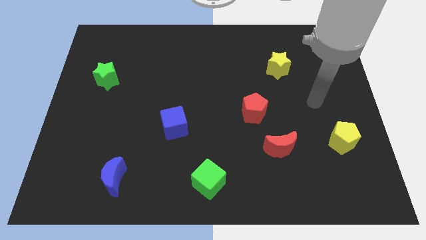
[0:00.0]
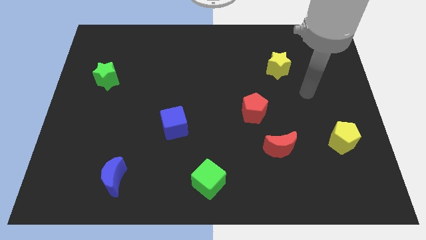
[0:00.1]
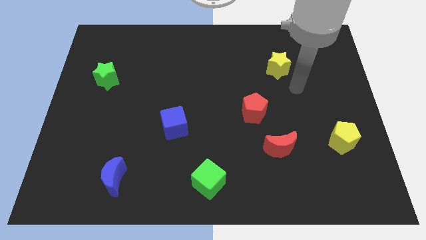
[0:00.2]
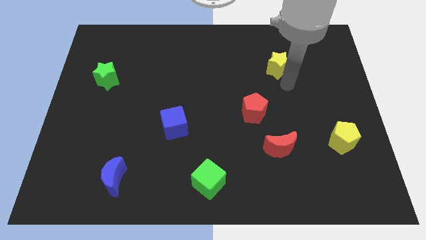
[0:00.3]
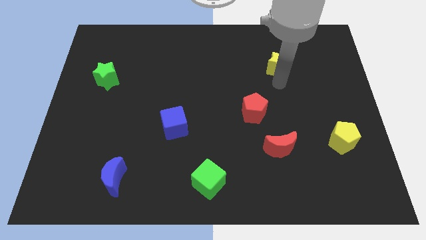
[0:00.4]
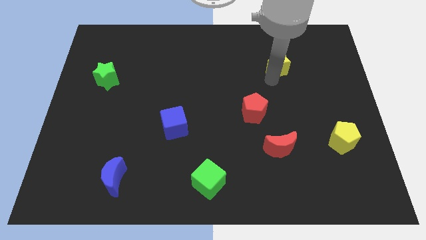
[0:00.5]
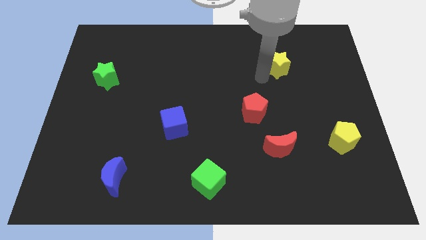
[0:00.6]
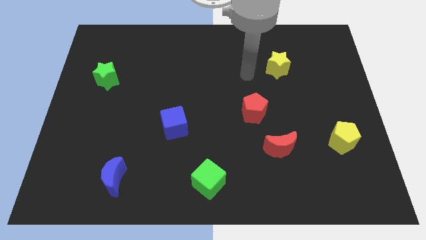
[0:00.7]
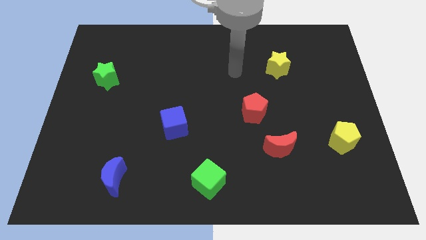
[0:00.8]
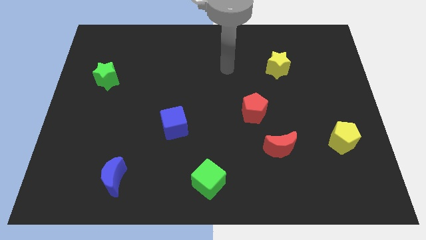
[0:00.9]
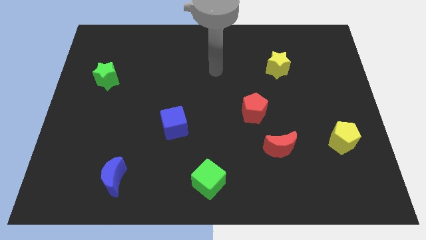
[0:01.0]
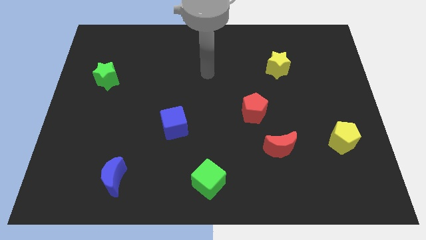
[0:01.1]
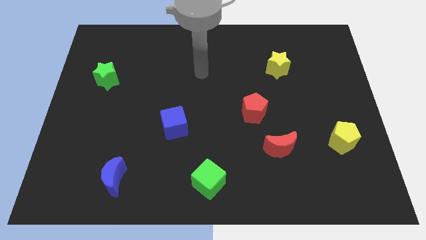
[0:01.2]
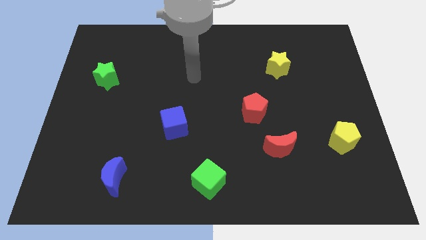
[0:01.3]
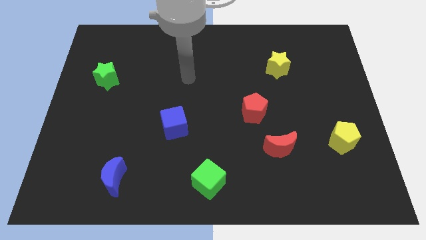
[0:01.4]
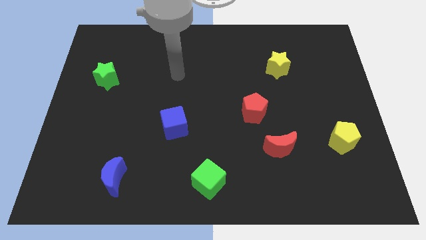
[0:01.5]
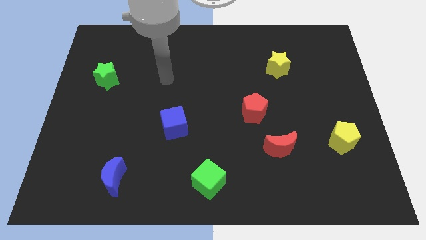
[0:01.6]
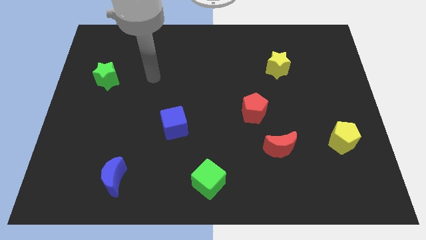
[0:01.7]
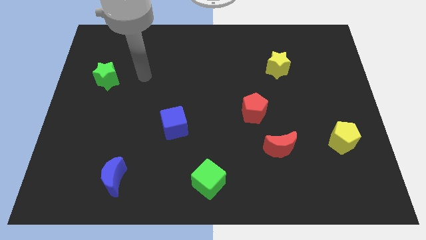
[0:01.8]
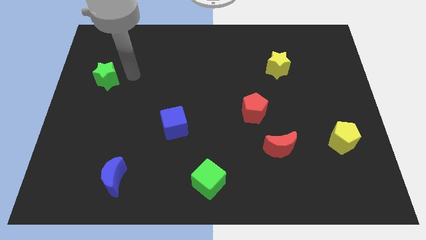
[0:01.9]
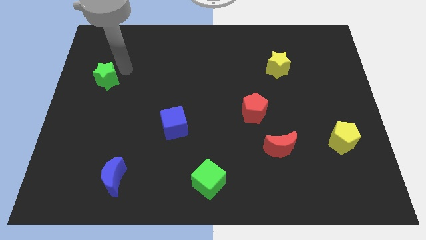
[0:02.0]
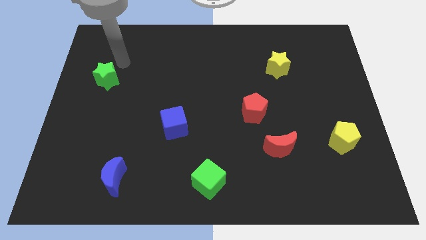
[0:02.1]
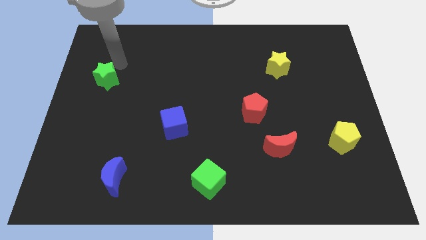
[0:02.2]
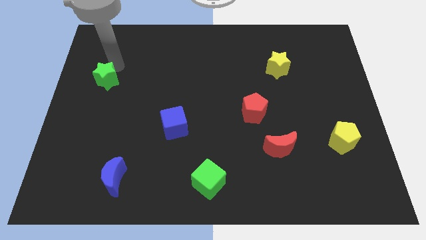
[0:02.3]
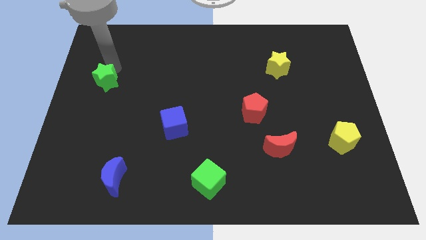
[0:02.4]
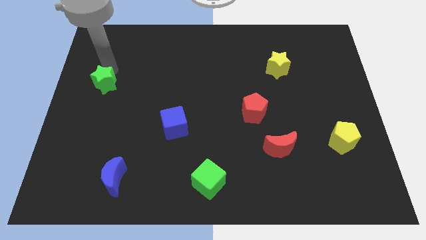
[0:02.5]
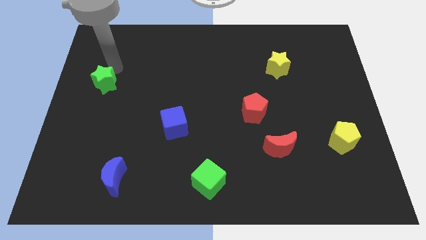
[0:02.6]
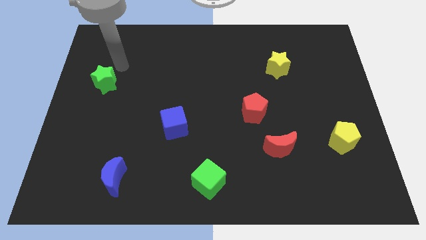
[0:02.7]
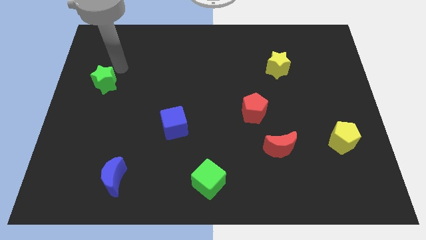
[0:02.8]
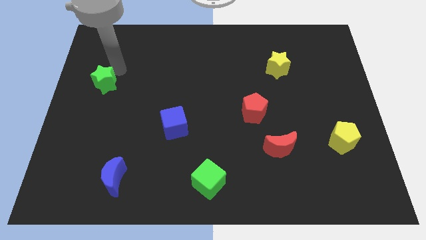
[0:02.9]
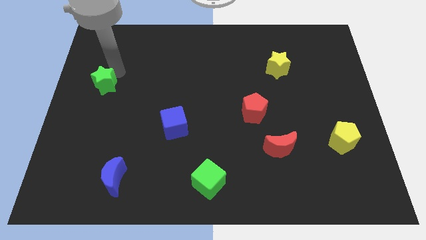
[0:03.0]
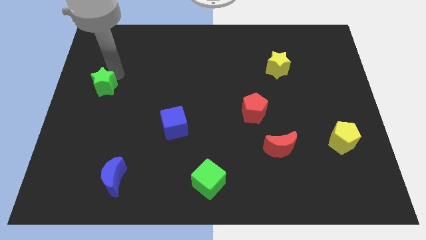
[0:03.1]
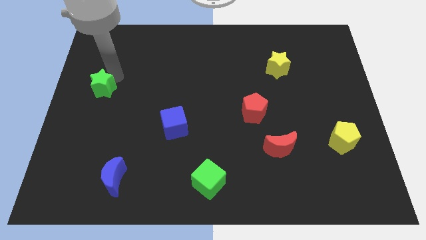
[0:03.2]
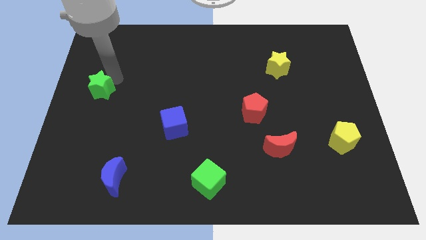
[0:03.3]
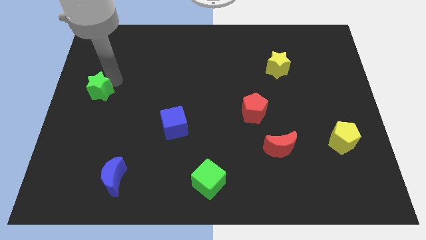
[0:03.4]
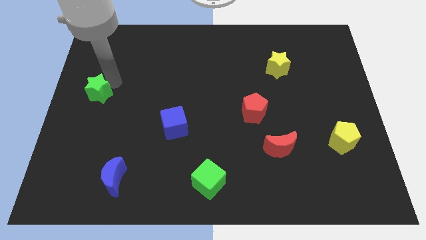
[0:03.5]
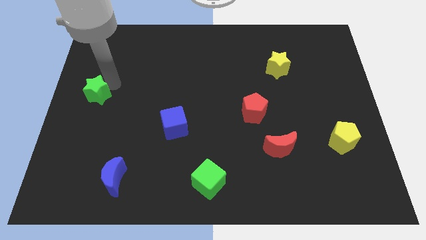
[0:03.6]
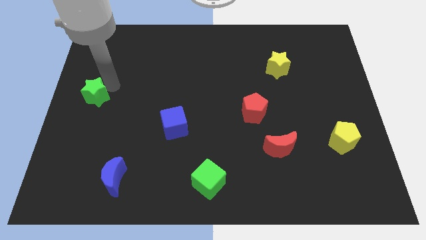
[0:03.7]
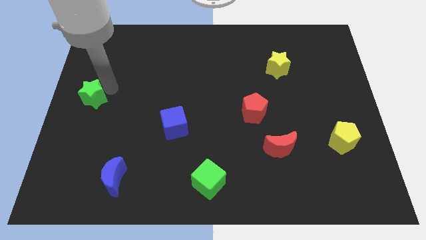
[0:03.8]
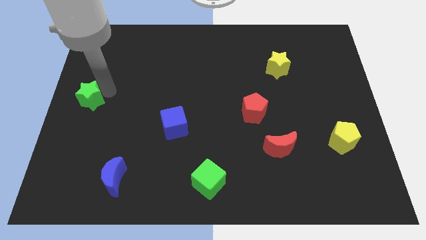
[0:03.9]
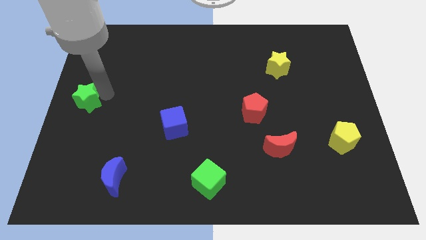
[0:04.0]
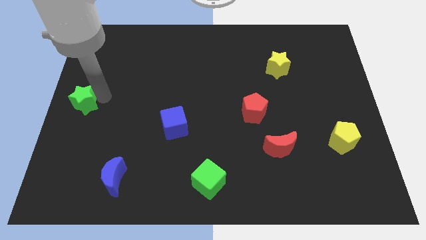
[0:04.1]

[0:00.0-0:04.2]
slightly slide the green star downwards

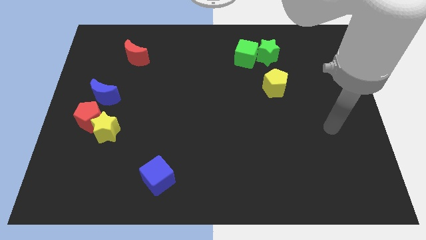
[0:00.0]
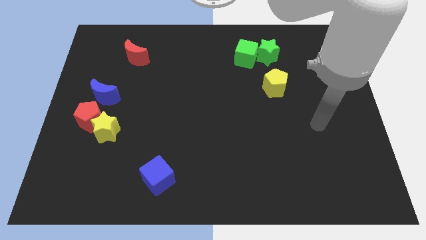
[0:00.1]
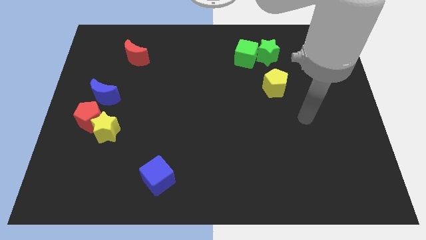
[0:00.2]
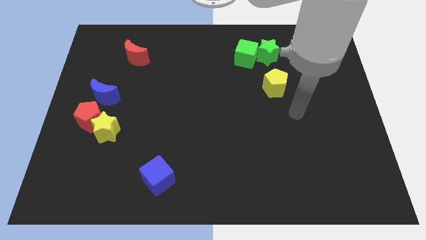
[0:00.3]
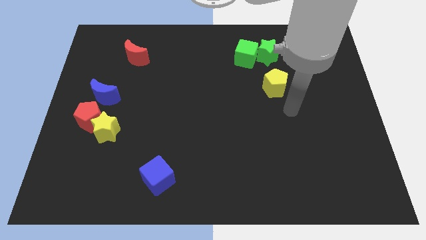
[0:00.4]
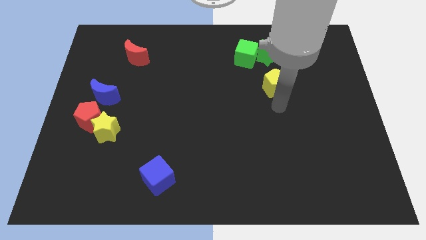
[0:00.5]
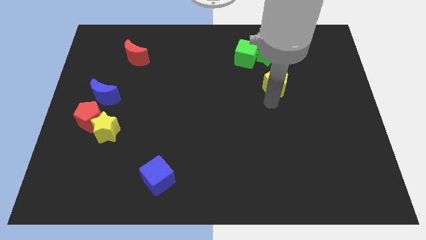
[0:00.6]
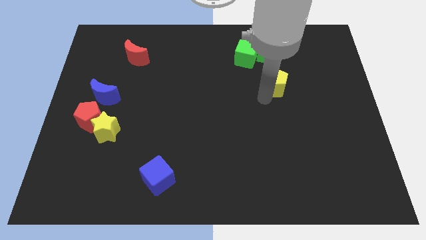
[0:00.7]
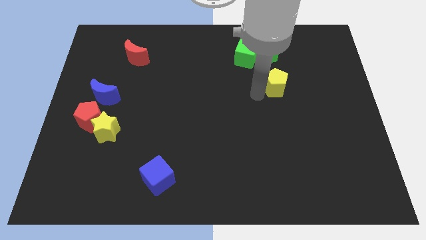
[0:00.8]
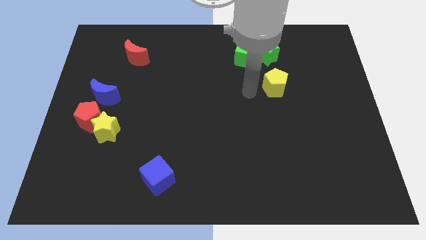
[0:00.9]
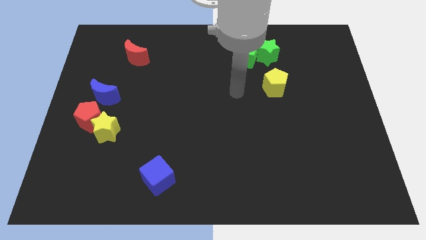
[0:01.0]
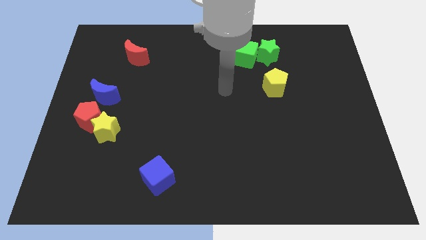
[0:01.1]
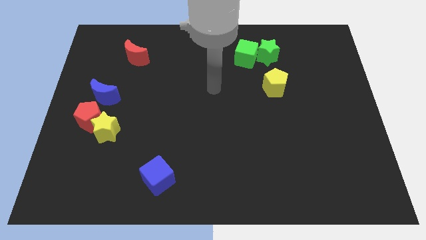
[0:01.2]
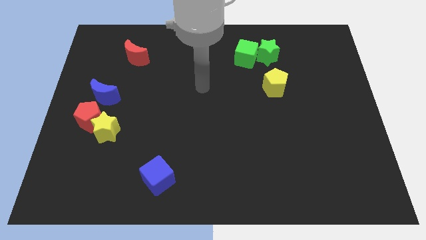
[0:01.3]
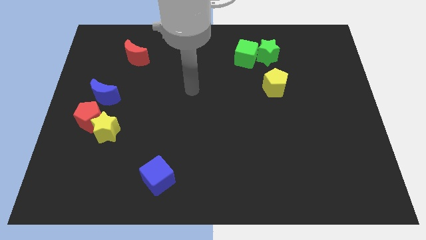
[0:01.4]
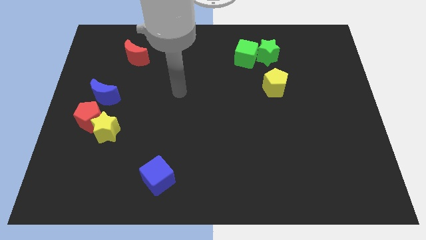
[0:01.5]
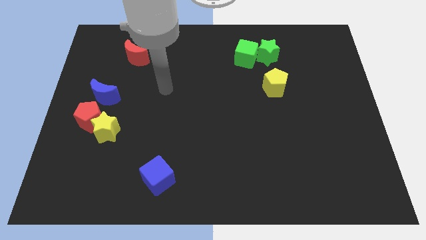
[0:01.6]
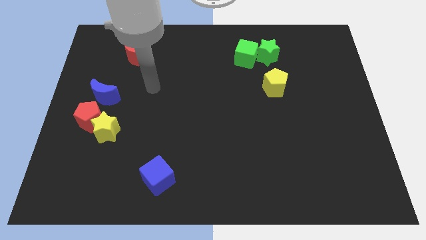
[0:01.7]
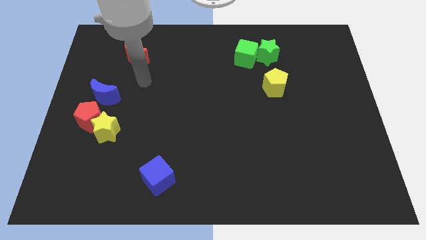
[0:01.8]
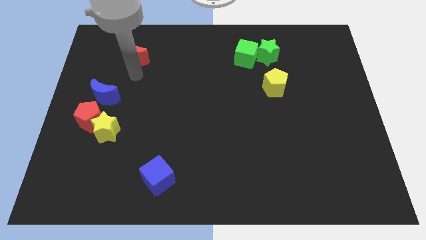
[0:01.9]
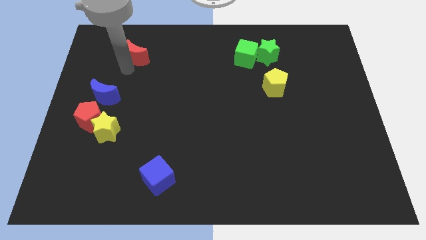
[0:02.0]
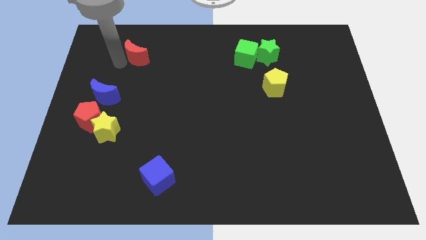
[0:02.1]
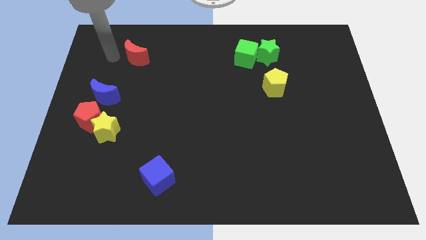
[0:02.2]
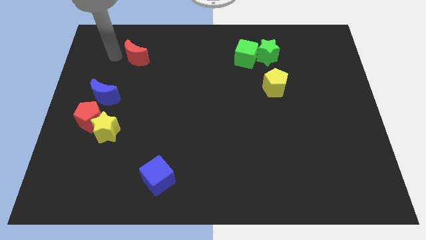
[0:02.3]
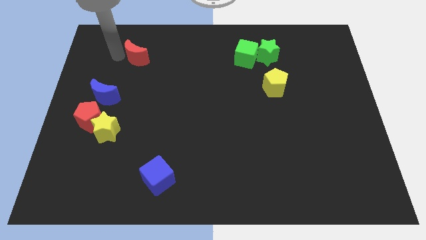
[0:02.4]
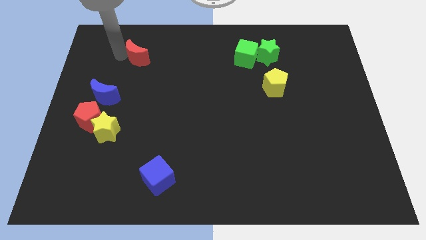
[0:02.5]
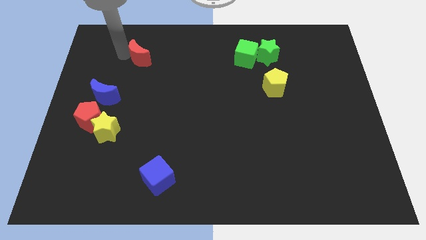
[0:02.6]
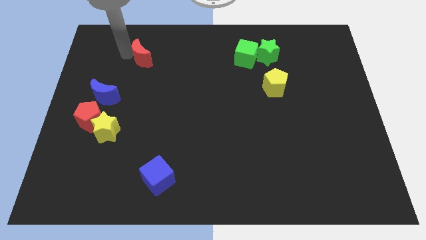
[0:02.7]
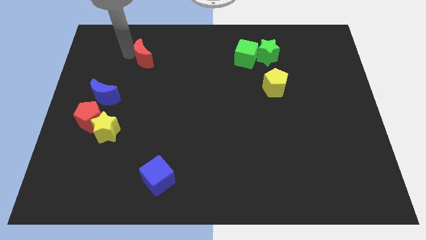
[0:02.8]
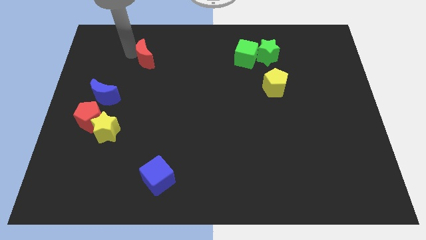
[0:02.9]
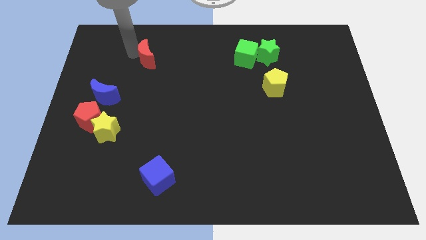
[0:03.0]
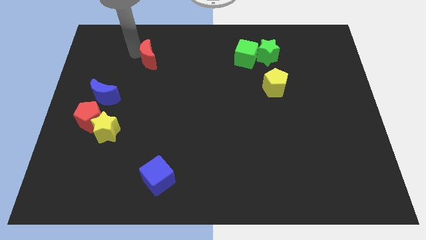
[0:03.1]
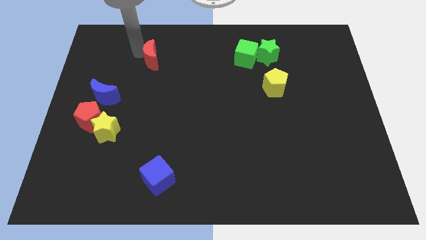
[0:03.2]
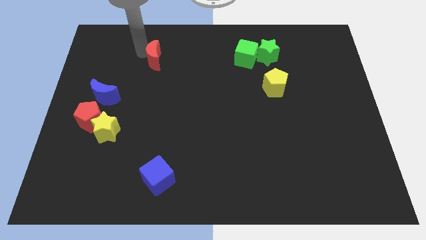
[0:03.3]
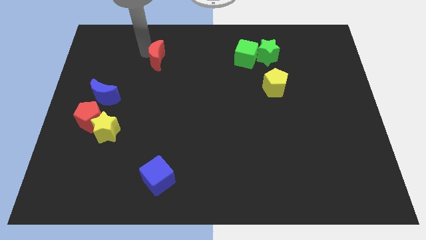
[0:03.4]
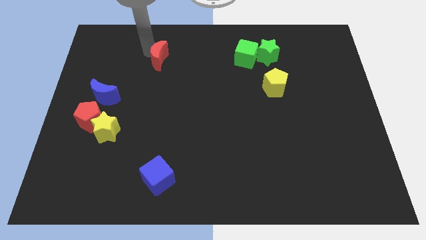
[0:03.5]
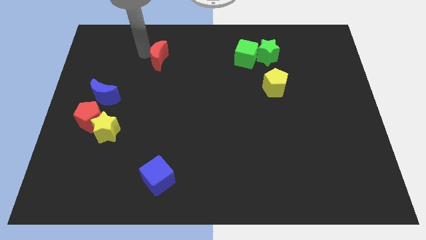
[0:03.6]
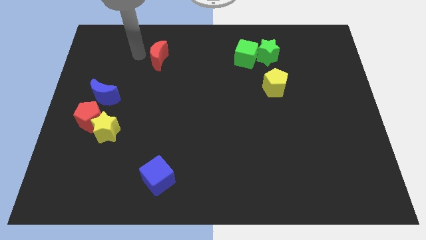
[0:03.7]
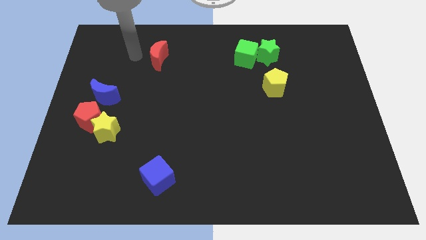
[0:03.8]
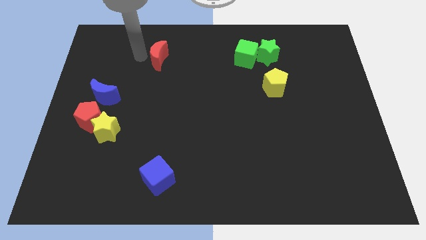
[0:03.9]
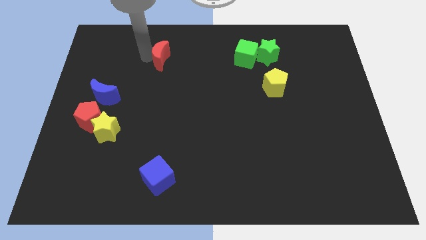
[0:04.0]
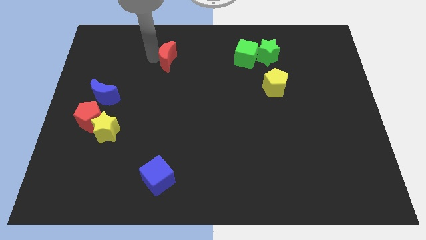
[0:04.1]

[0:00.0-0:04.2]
move the red moon a little bit right
